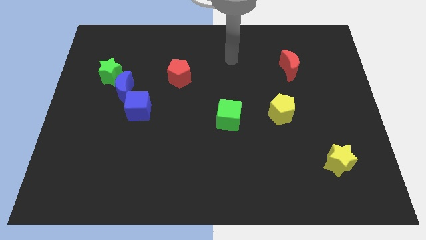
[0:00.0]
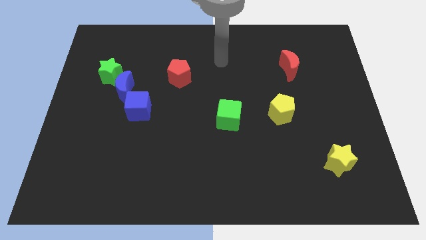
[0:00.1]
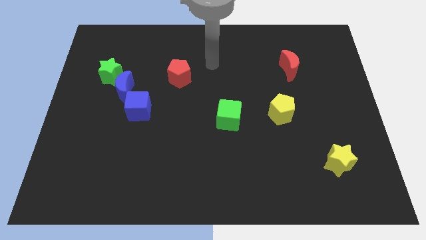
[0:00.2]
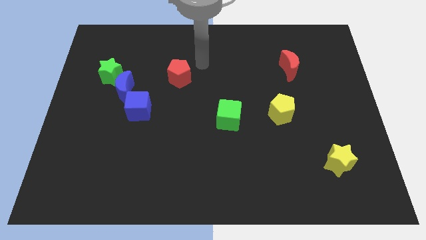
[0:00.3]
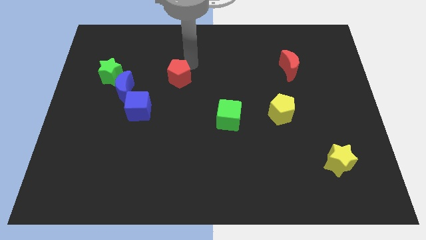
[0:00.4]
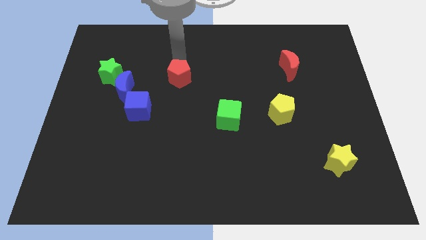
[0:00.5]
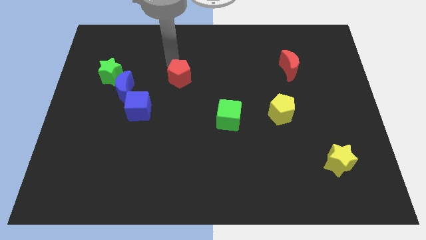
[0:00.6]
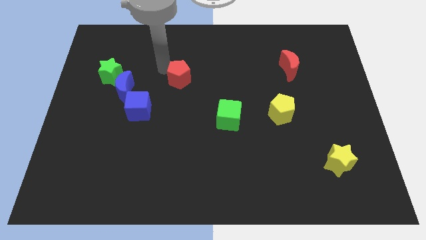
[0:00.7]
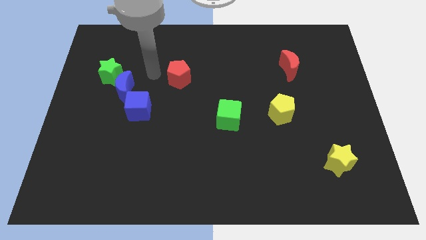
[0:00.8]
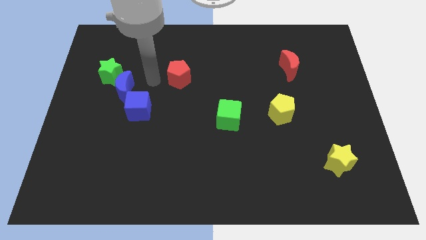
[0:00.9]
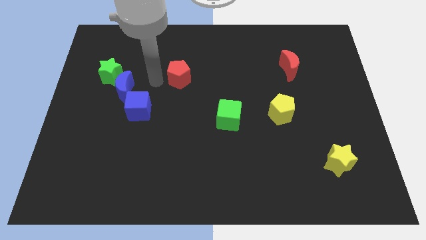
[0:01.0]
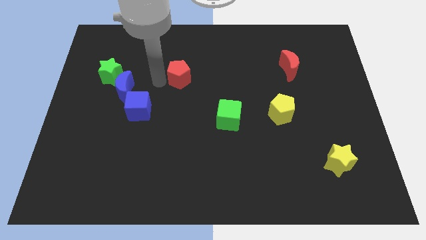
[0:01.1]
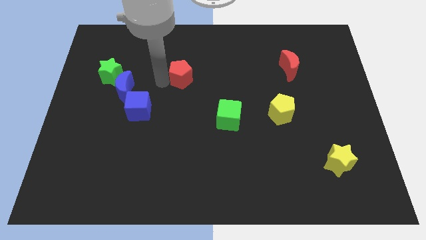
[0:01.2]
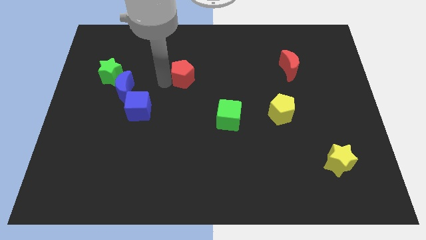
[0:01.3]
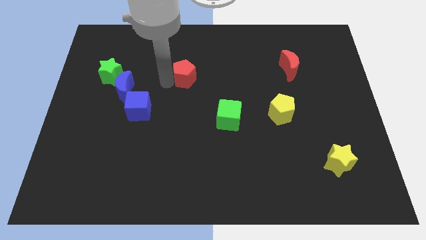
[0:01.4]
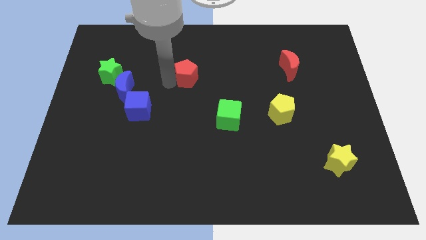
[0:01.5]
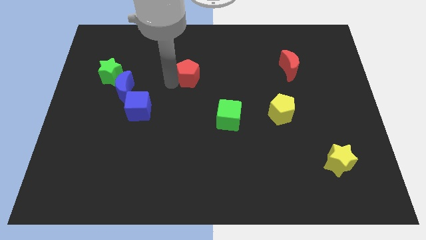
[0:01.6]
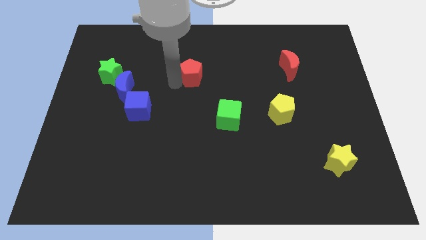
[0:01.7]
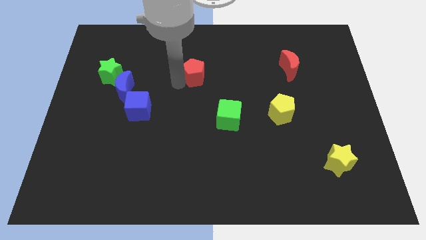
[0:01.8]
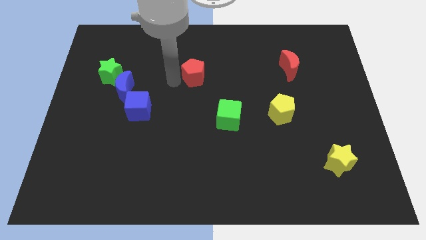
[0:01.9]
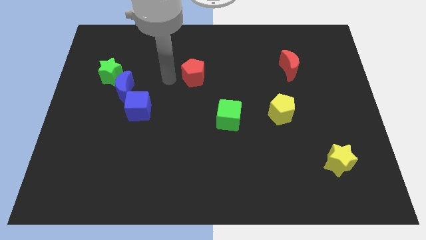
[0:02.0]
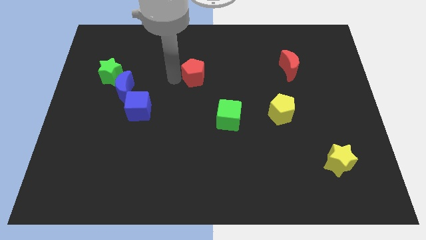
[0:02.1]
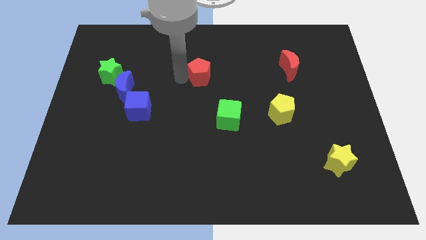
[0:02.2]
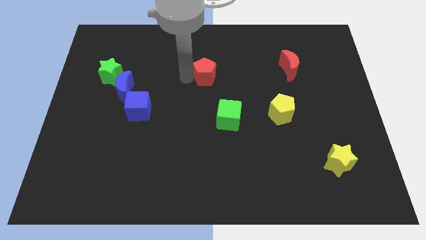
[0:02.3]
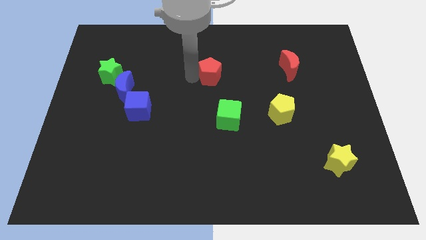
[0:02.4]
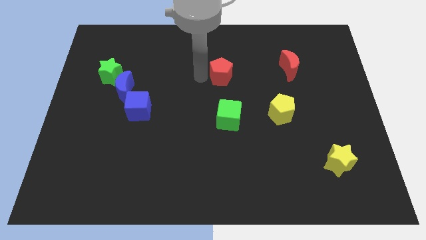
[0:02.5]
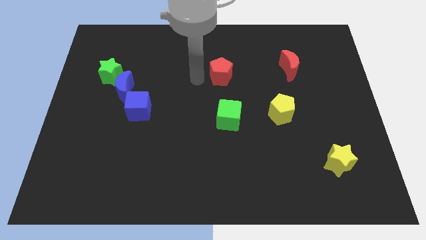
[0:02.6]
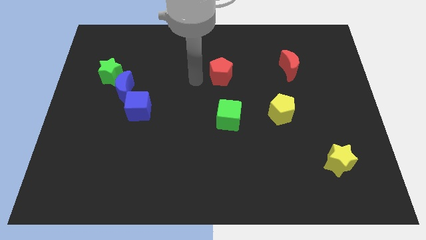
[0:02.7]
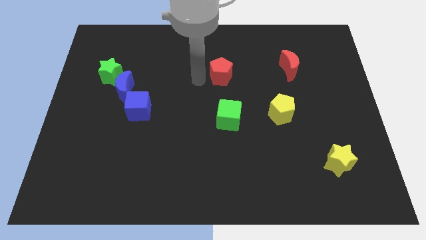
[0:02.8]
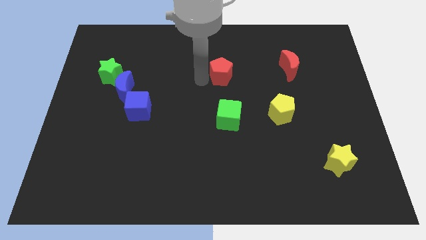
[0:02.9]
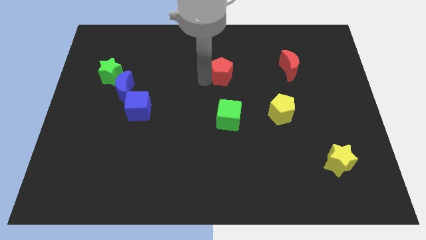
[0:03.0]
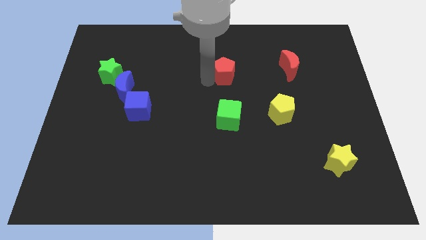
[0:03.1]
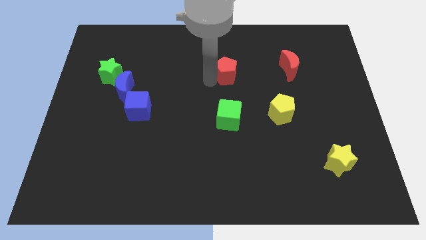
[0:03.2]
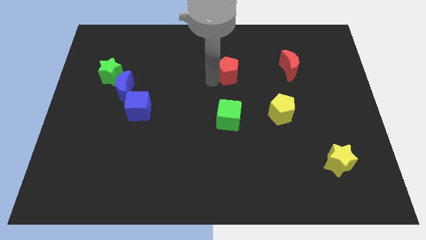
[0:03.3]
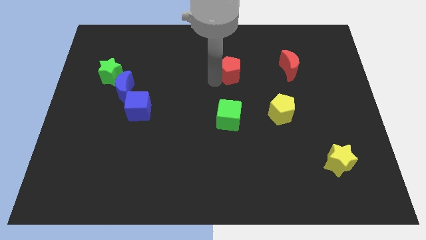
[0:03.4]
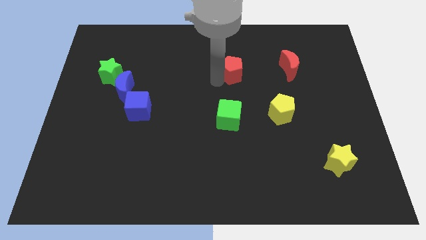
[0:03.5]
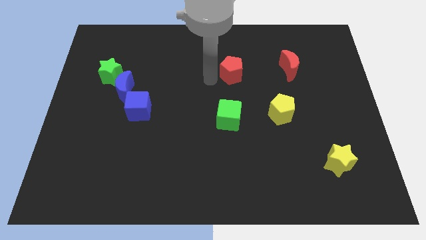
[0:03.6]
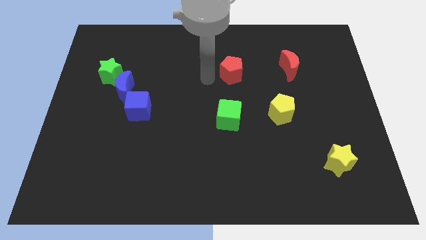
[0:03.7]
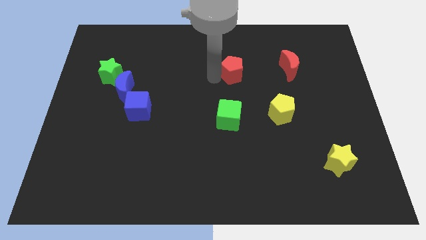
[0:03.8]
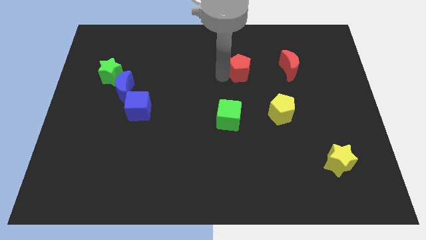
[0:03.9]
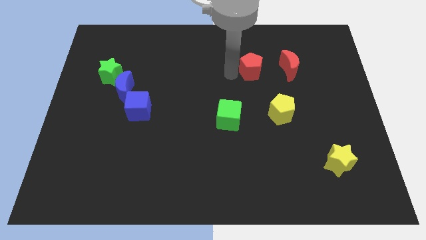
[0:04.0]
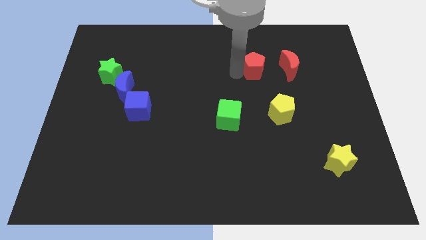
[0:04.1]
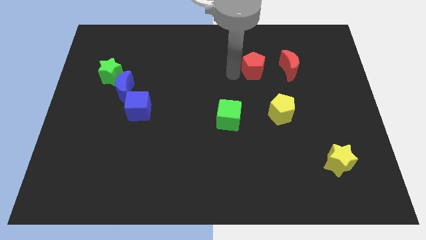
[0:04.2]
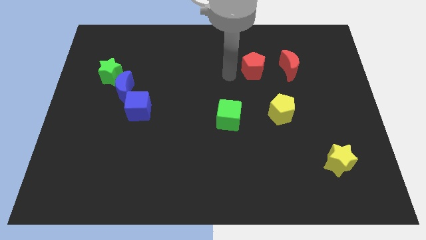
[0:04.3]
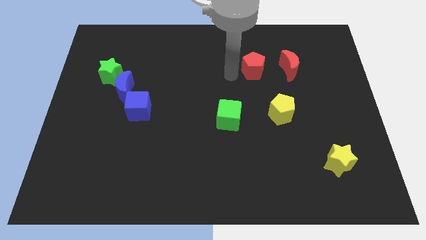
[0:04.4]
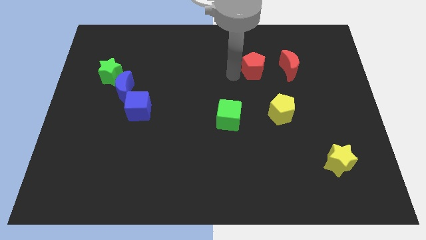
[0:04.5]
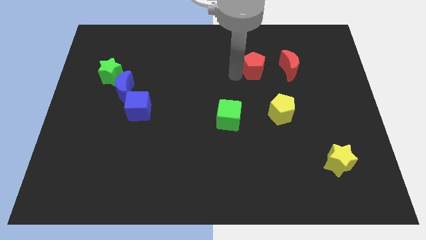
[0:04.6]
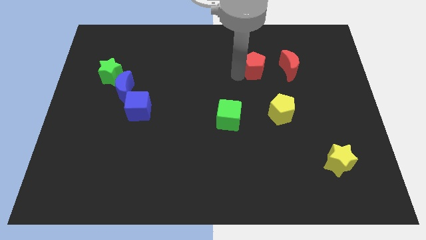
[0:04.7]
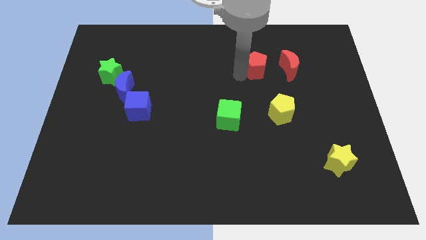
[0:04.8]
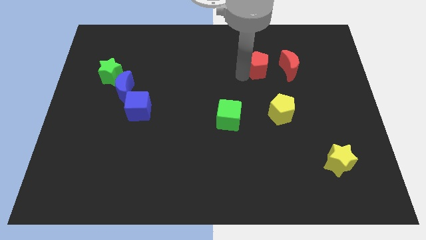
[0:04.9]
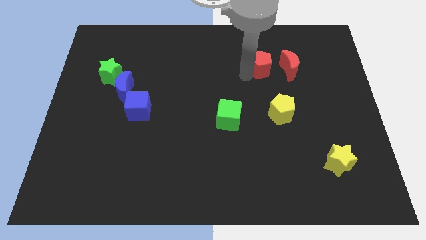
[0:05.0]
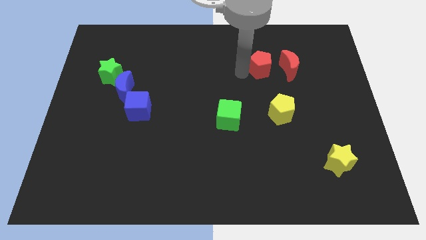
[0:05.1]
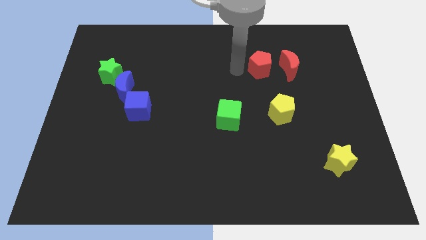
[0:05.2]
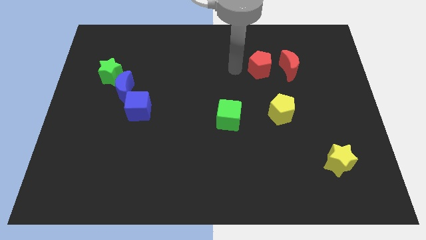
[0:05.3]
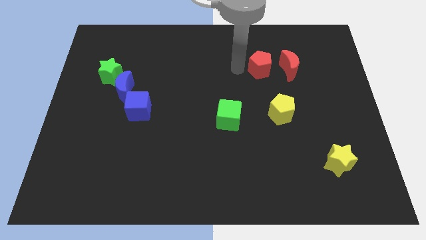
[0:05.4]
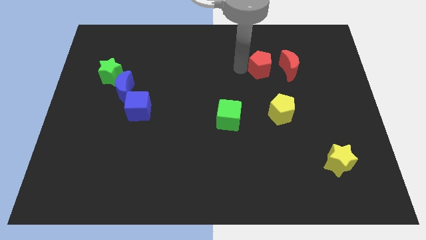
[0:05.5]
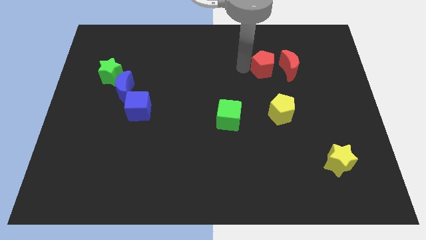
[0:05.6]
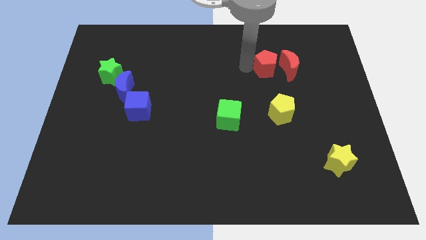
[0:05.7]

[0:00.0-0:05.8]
move the red pentagon next to the red moon

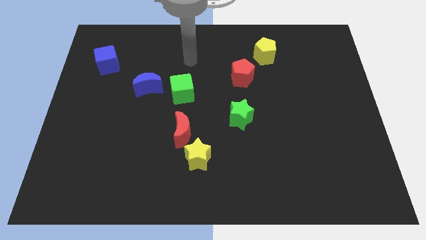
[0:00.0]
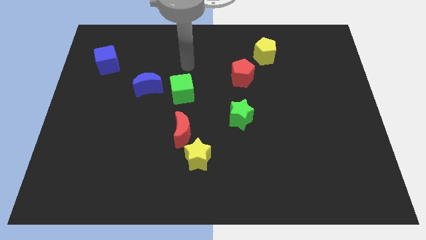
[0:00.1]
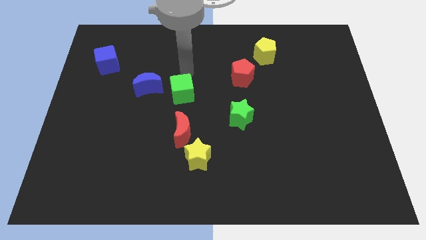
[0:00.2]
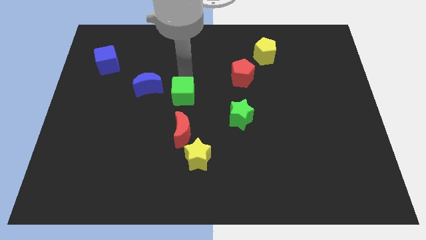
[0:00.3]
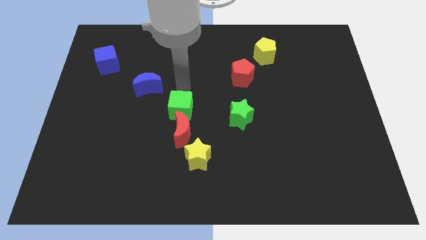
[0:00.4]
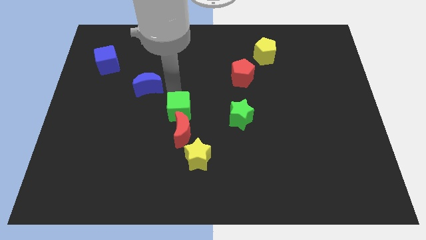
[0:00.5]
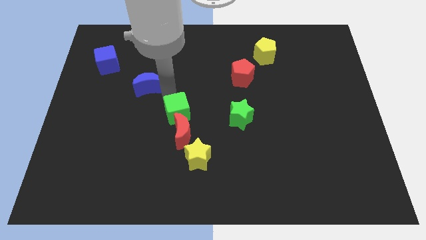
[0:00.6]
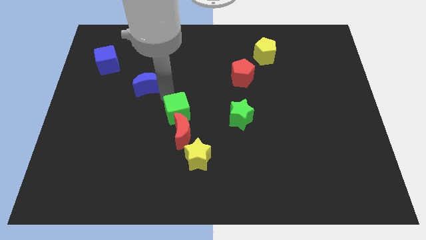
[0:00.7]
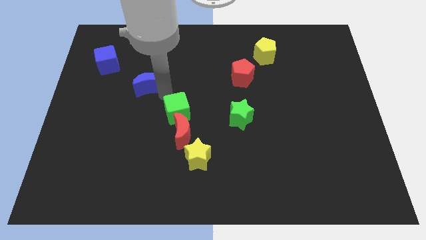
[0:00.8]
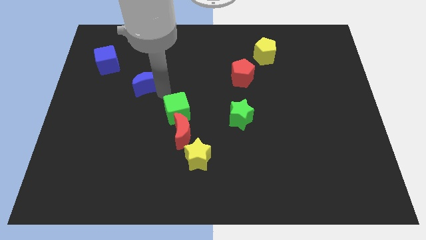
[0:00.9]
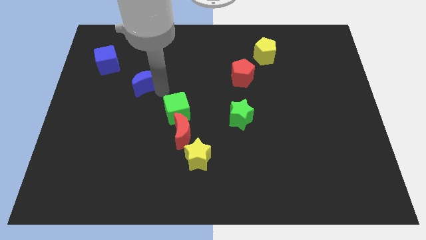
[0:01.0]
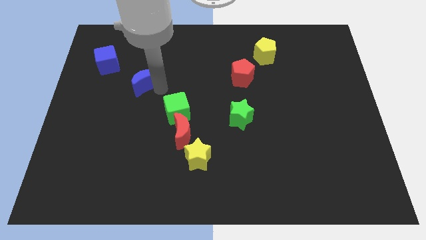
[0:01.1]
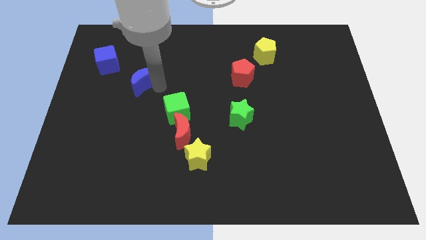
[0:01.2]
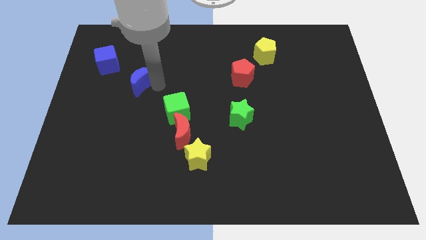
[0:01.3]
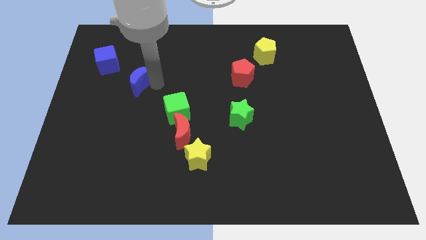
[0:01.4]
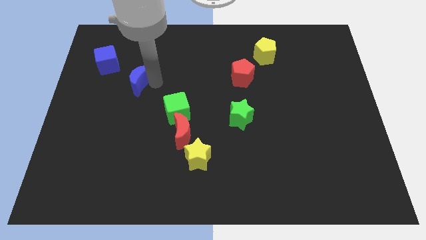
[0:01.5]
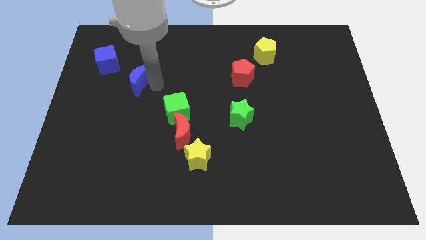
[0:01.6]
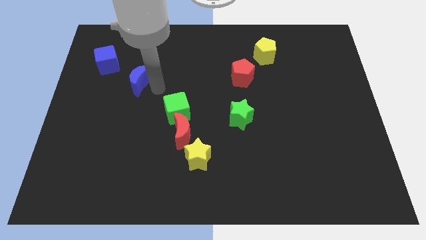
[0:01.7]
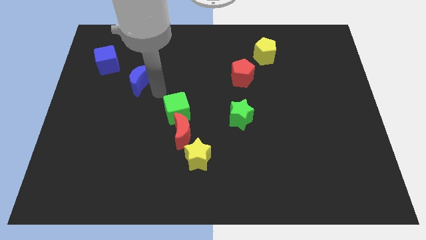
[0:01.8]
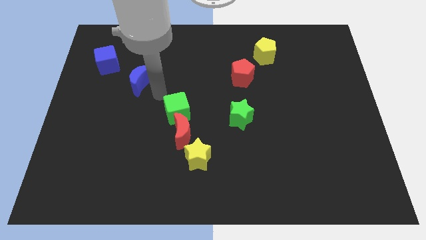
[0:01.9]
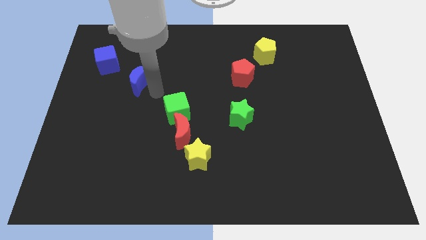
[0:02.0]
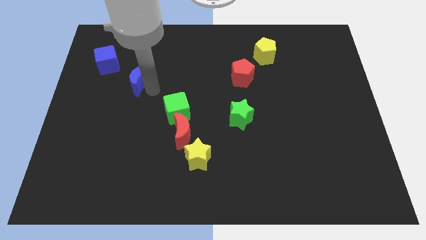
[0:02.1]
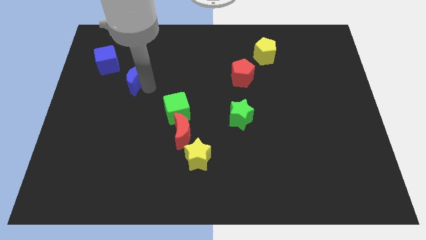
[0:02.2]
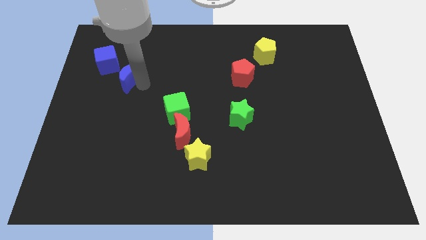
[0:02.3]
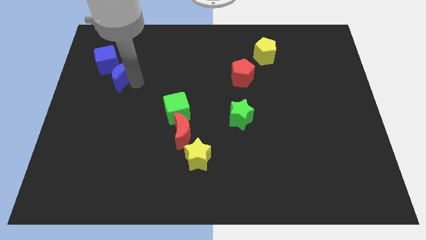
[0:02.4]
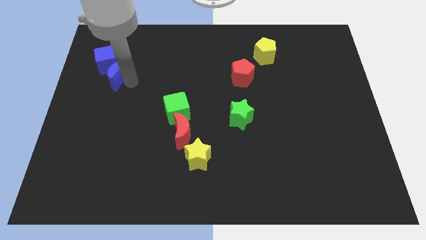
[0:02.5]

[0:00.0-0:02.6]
put the blue moon close to the blue cube
